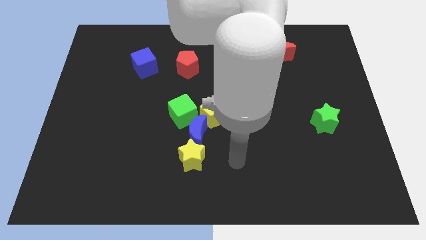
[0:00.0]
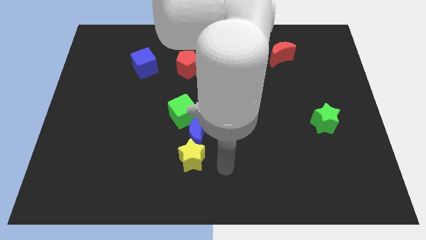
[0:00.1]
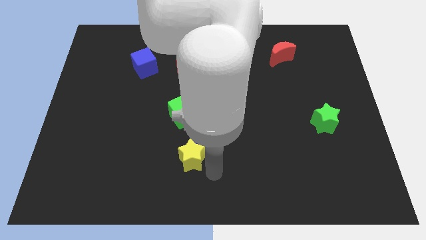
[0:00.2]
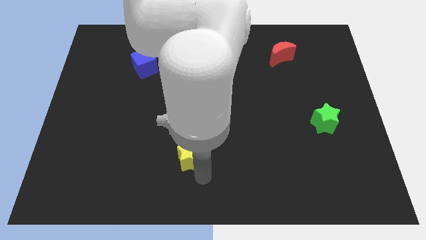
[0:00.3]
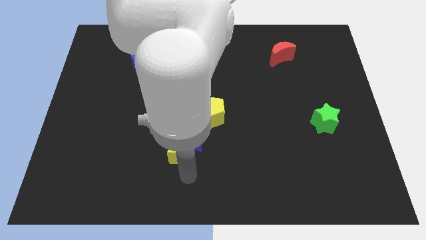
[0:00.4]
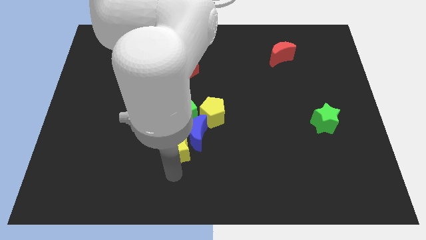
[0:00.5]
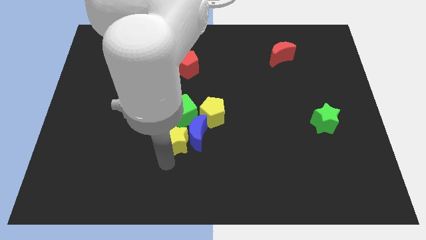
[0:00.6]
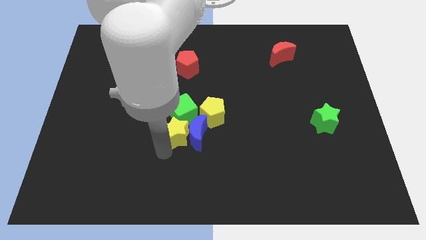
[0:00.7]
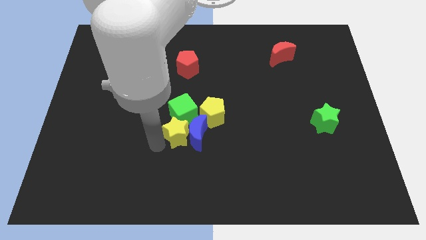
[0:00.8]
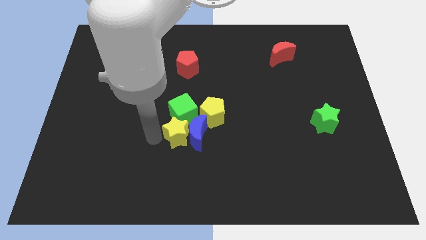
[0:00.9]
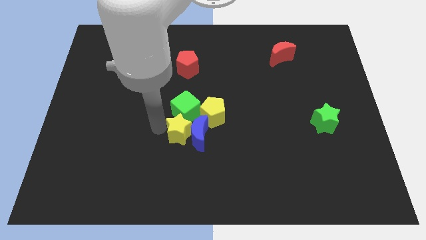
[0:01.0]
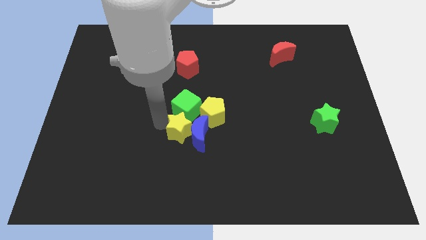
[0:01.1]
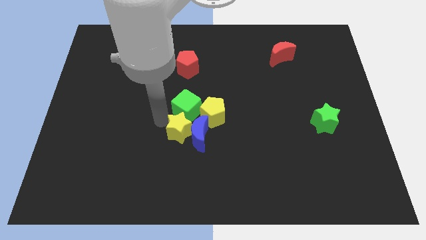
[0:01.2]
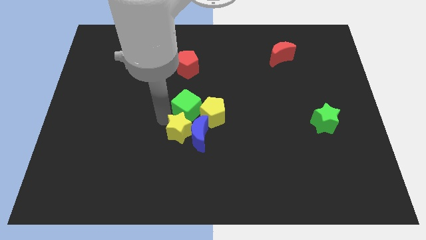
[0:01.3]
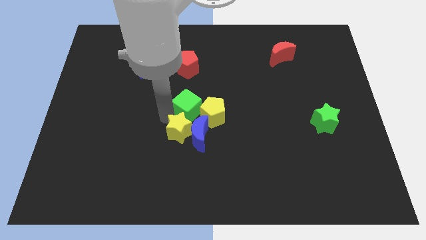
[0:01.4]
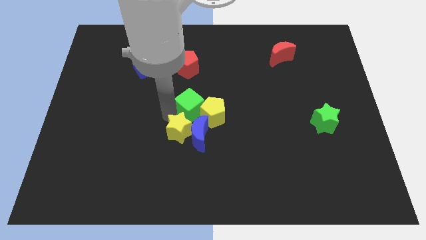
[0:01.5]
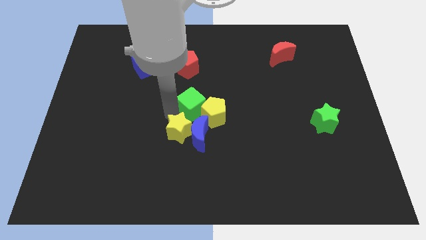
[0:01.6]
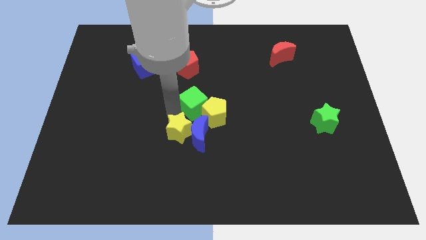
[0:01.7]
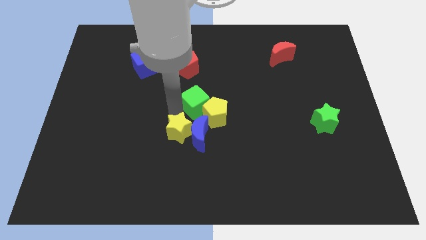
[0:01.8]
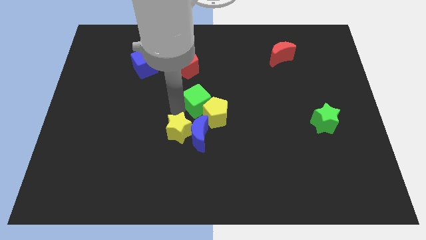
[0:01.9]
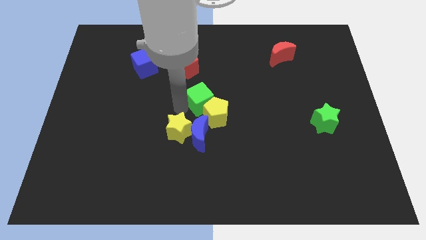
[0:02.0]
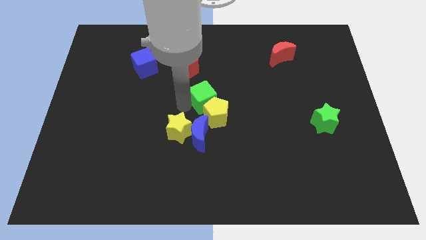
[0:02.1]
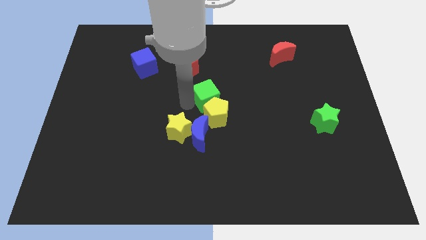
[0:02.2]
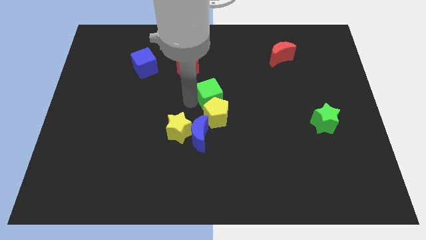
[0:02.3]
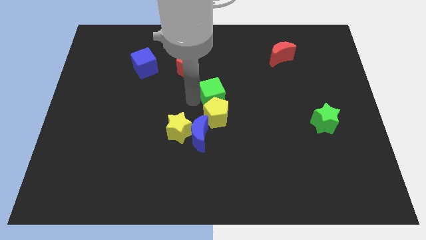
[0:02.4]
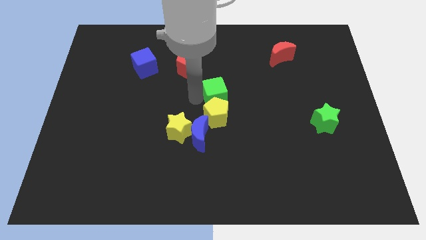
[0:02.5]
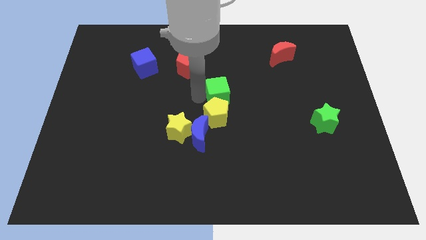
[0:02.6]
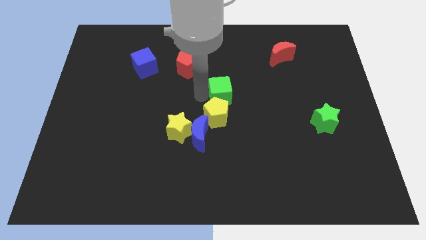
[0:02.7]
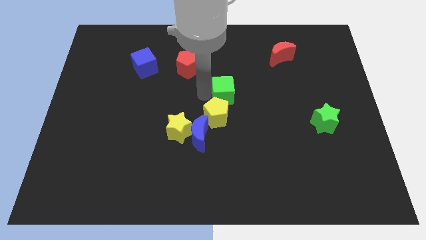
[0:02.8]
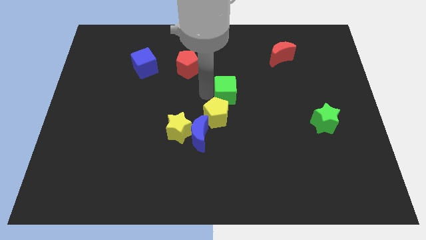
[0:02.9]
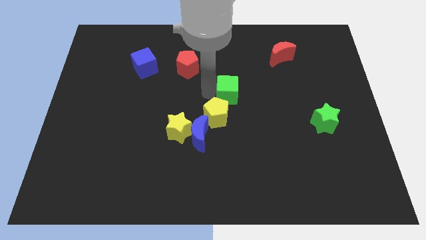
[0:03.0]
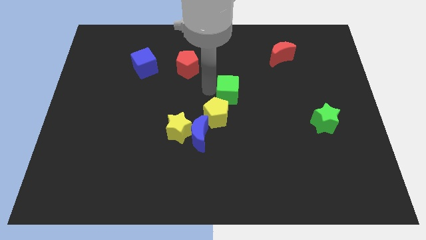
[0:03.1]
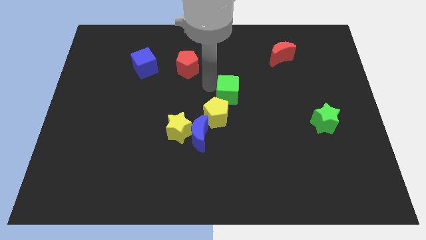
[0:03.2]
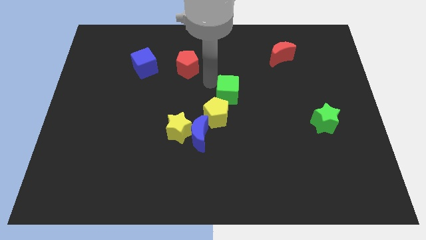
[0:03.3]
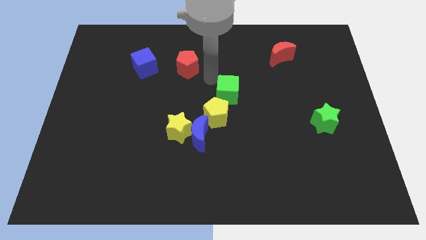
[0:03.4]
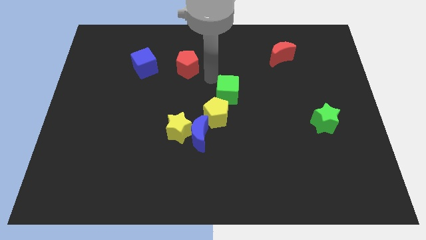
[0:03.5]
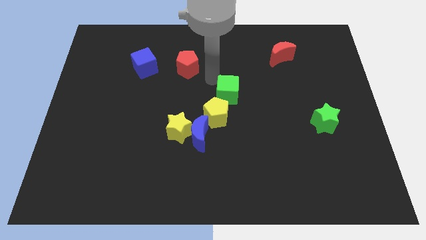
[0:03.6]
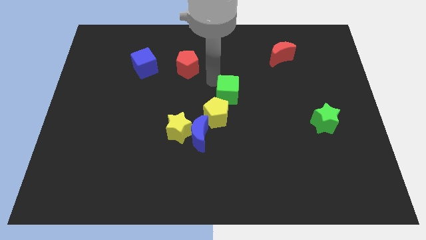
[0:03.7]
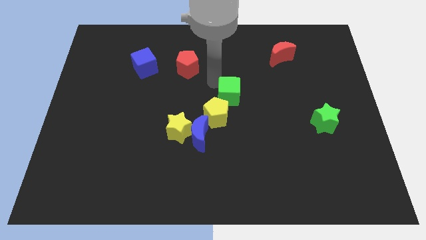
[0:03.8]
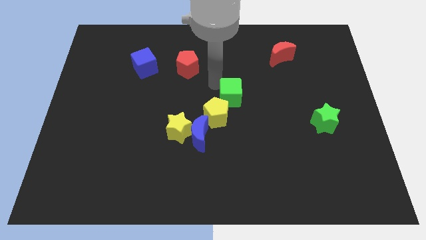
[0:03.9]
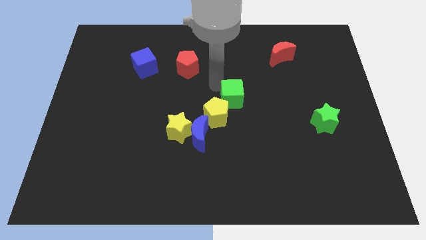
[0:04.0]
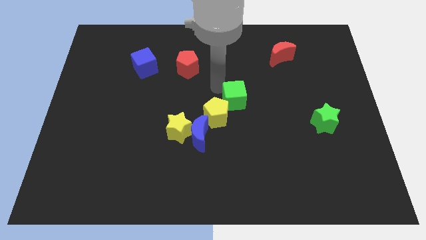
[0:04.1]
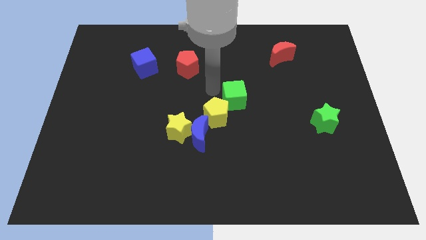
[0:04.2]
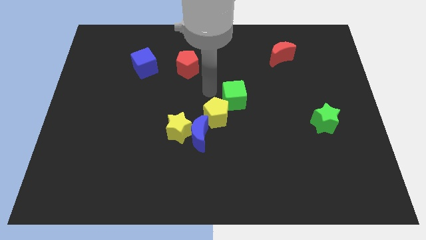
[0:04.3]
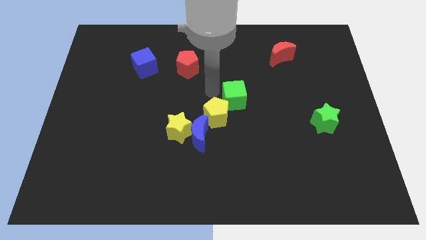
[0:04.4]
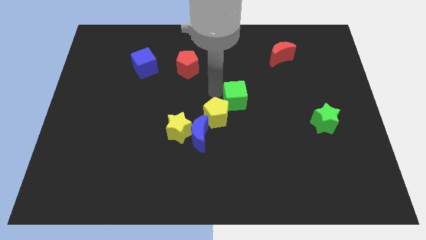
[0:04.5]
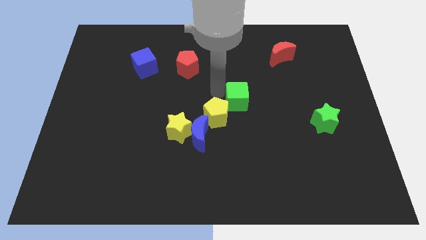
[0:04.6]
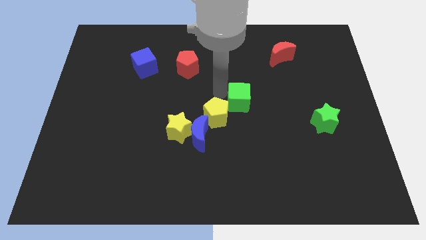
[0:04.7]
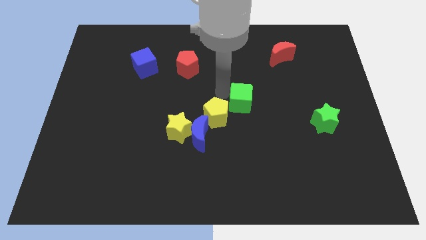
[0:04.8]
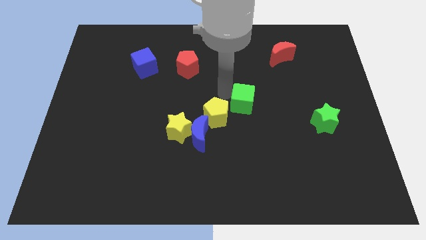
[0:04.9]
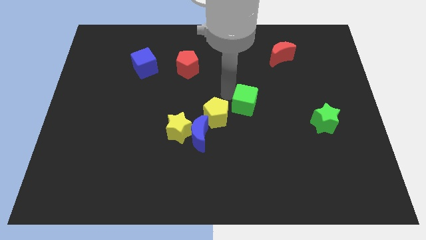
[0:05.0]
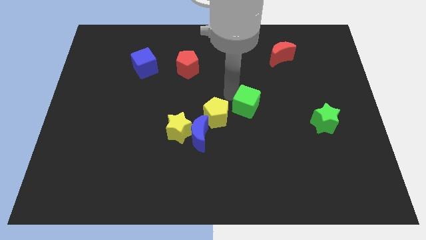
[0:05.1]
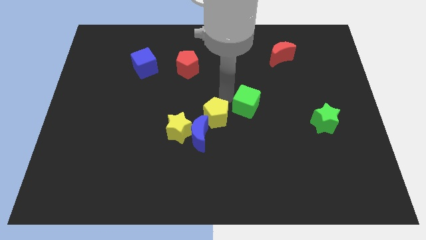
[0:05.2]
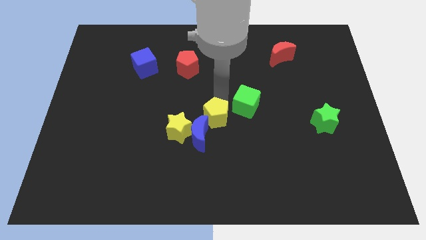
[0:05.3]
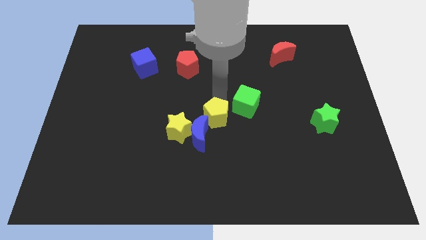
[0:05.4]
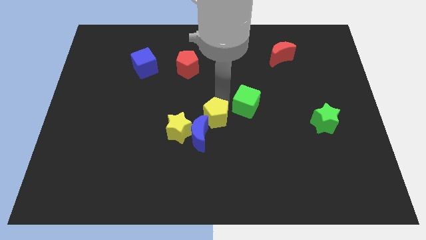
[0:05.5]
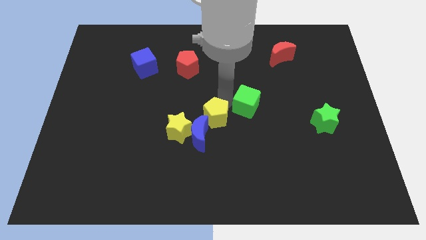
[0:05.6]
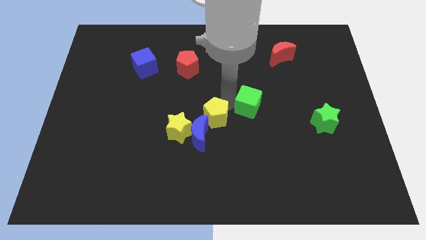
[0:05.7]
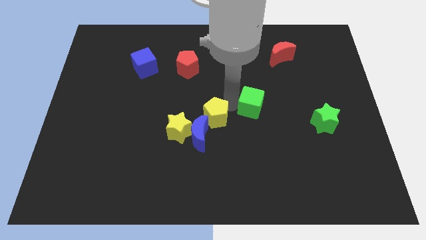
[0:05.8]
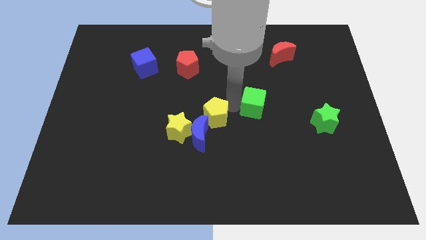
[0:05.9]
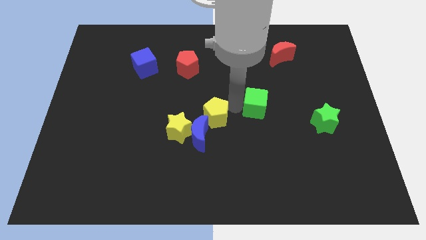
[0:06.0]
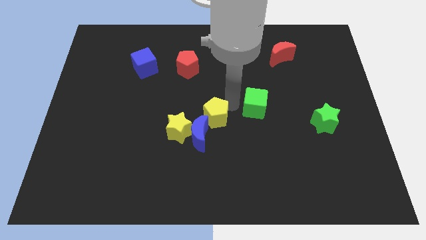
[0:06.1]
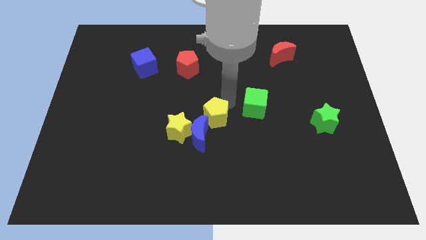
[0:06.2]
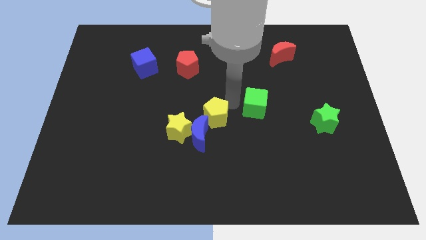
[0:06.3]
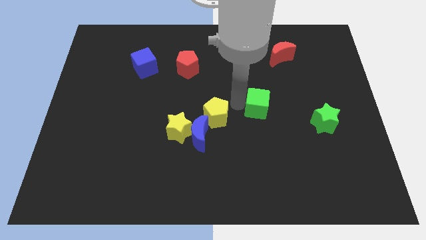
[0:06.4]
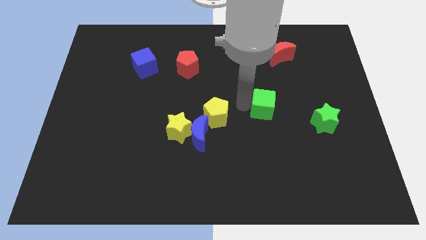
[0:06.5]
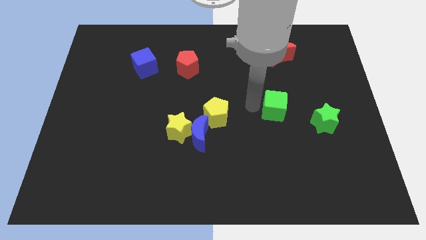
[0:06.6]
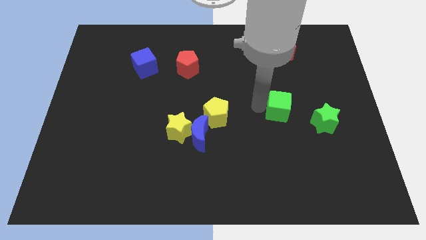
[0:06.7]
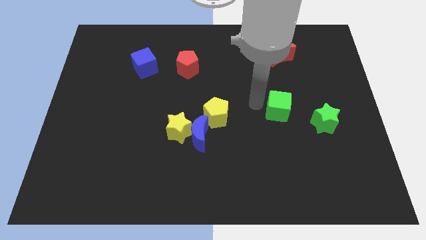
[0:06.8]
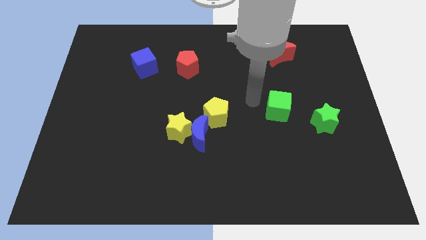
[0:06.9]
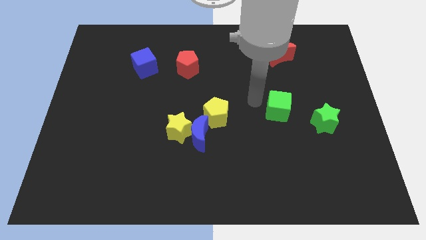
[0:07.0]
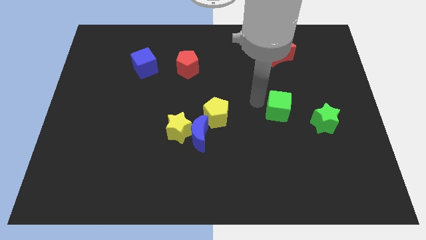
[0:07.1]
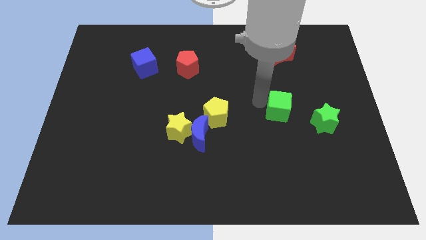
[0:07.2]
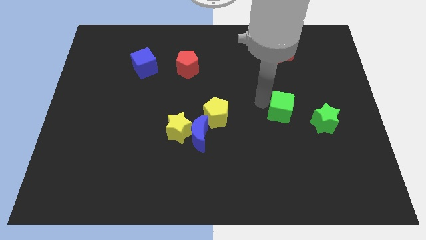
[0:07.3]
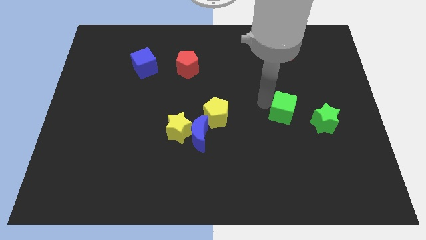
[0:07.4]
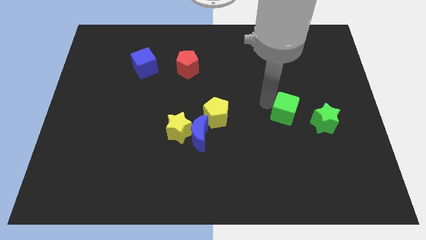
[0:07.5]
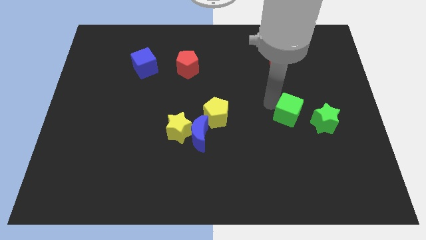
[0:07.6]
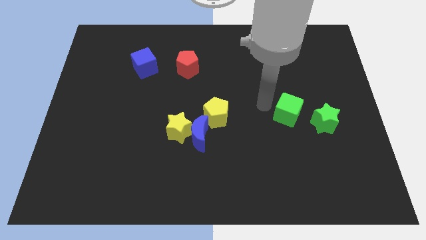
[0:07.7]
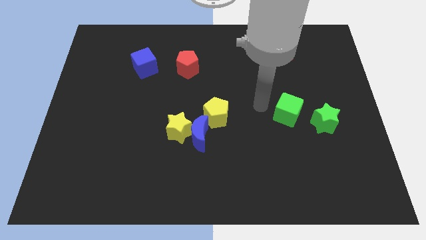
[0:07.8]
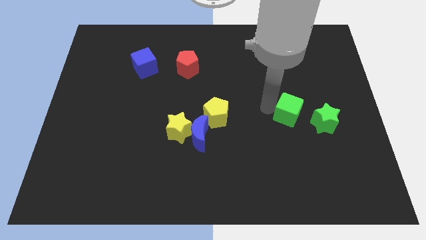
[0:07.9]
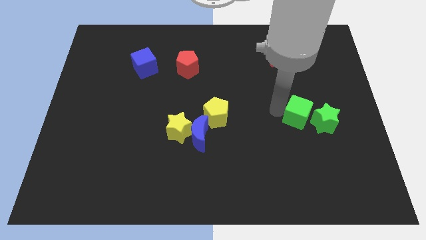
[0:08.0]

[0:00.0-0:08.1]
put the green cube close to the green star
